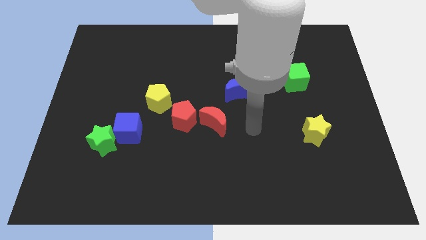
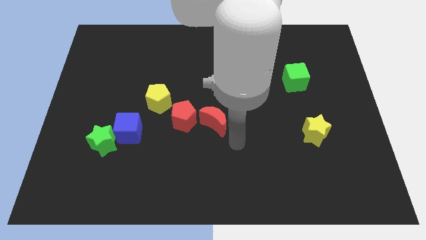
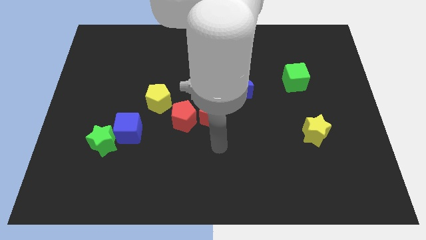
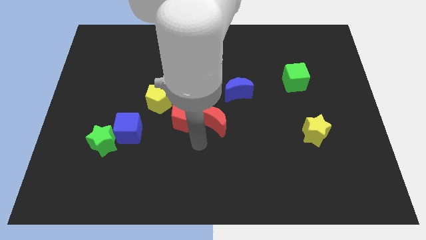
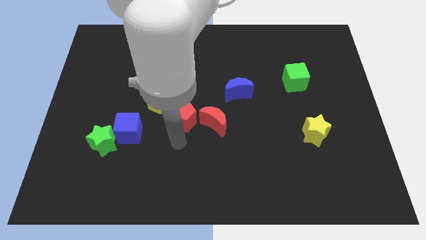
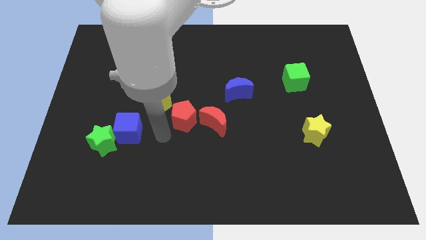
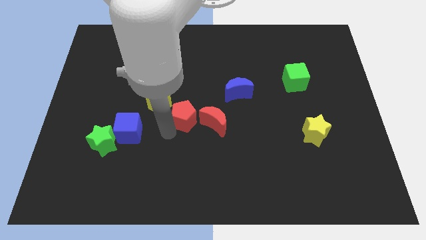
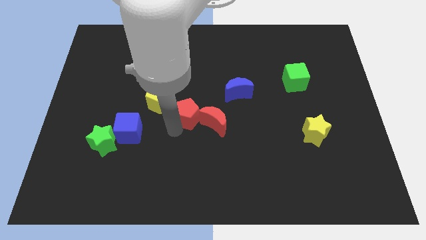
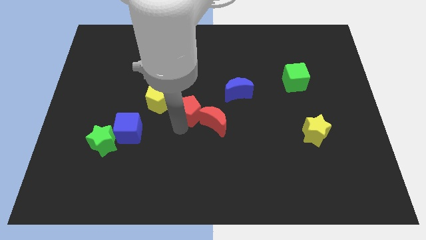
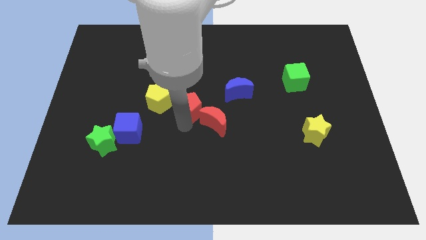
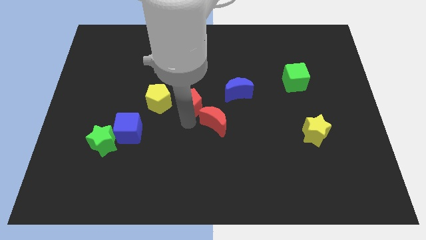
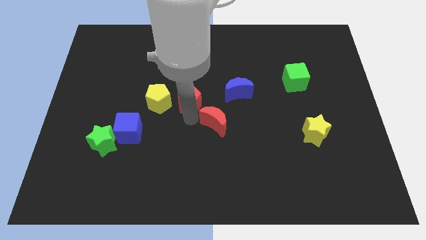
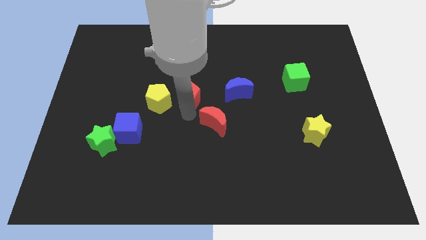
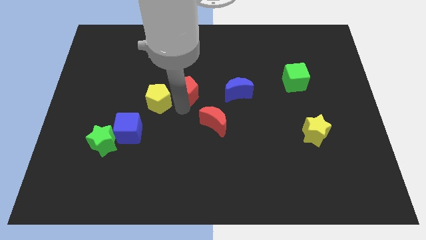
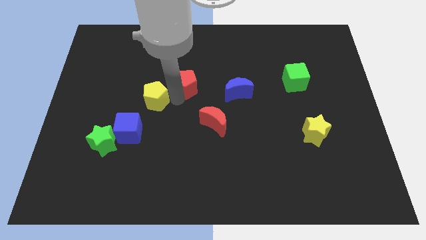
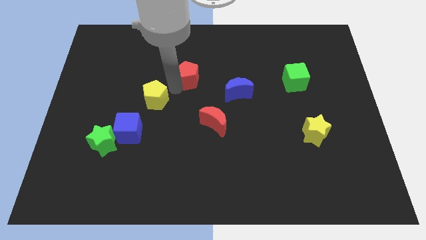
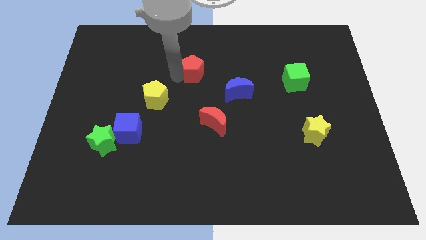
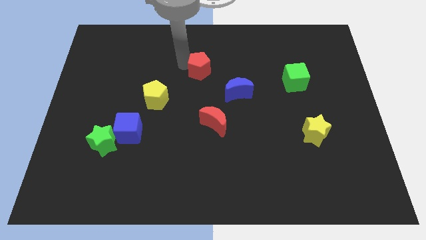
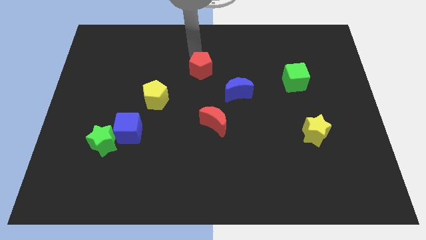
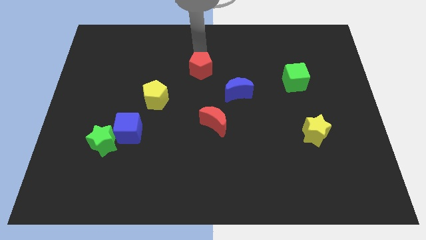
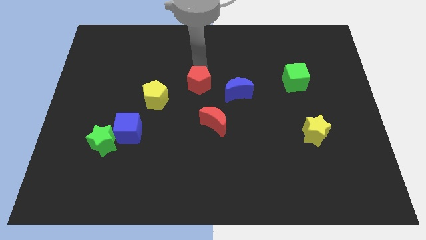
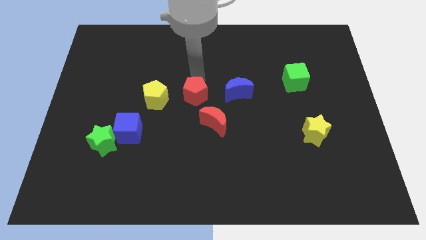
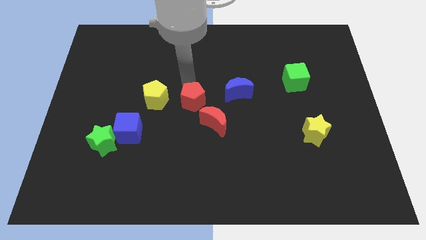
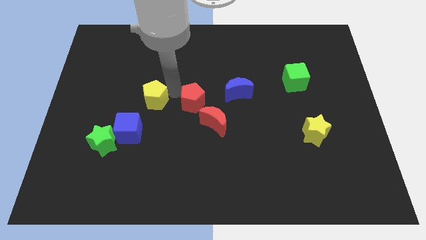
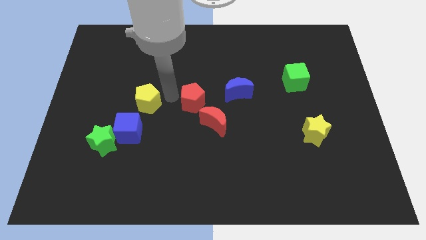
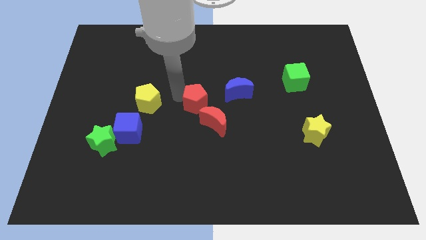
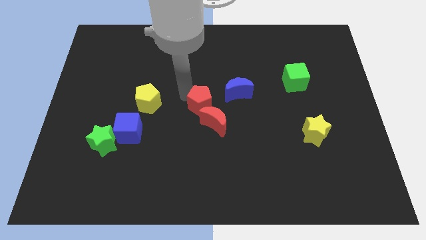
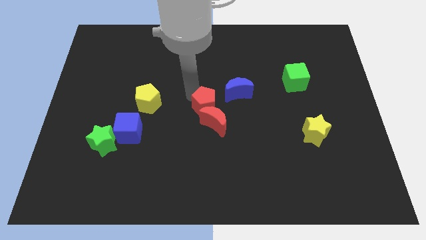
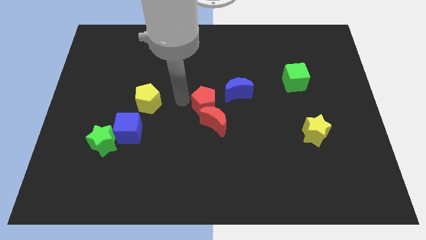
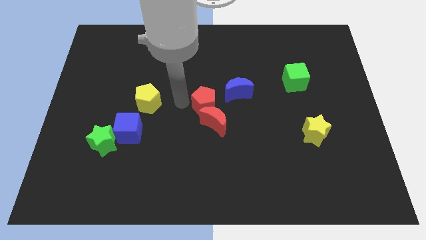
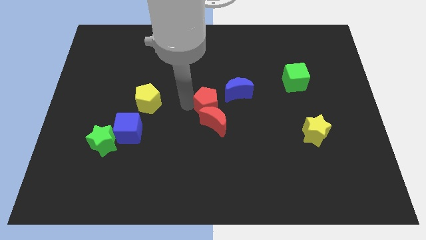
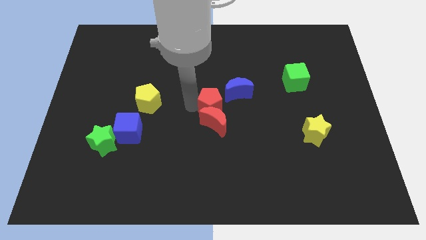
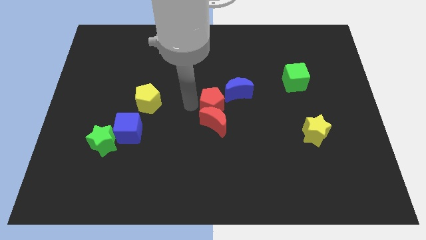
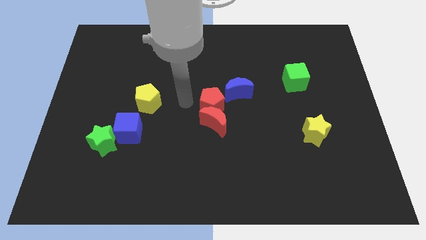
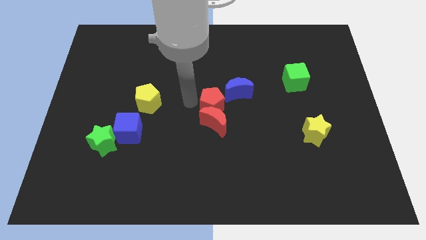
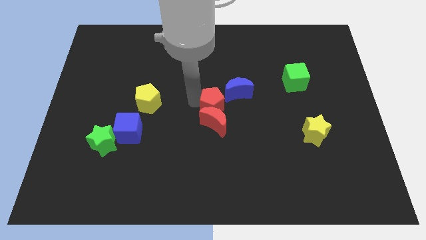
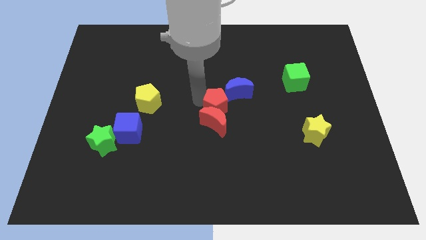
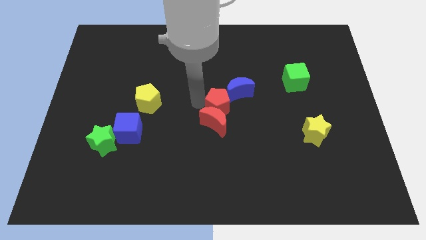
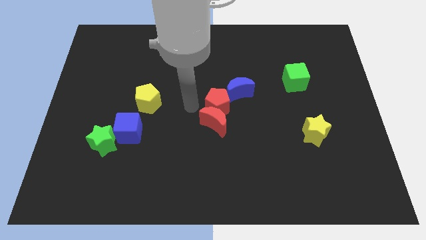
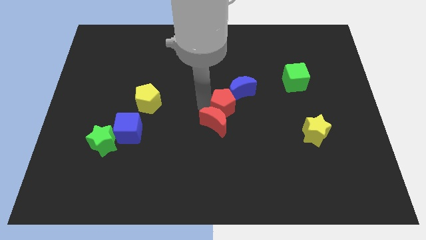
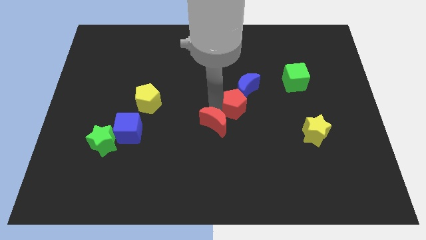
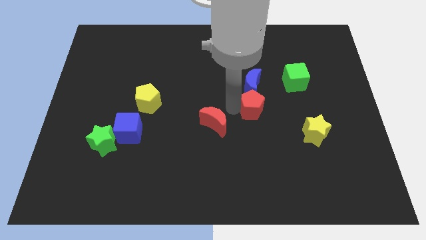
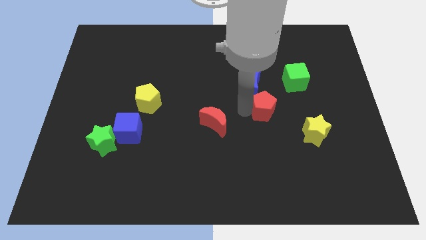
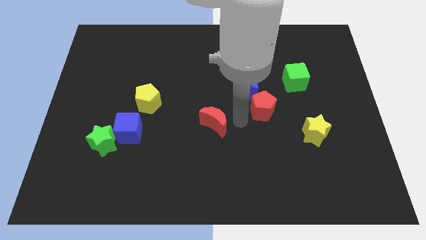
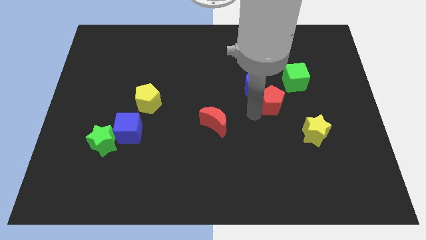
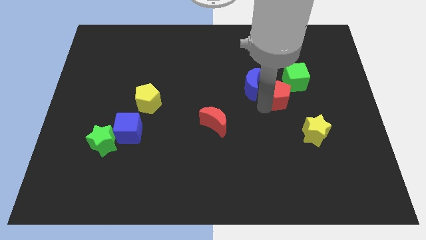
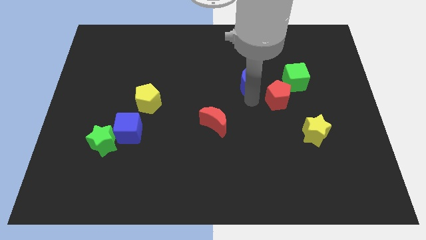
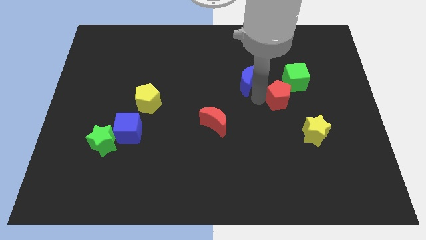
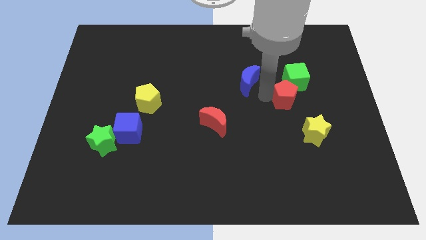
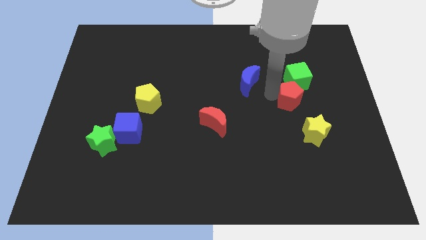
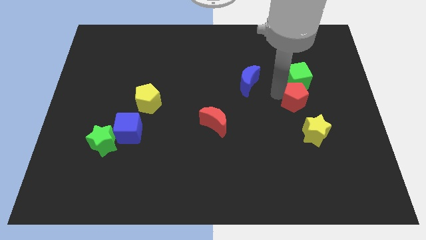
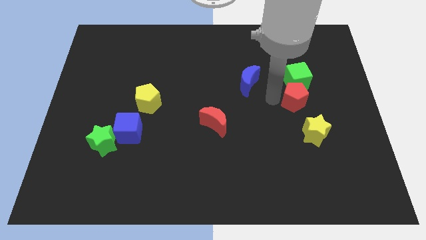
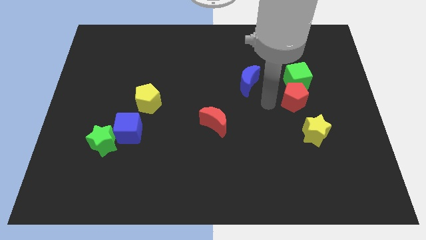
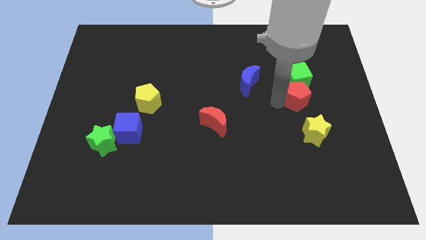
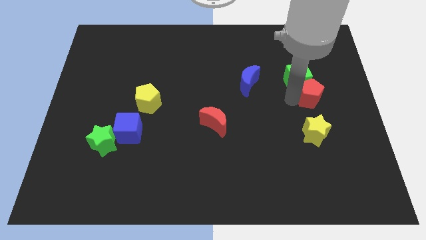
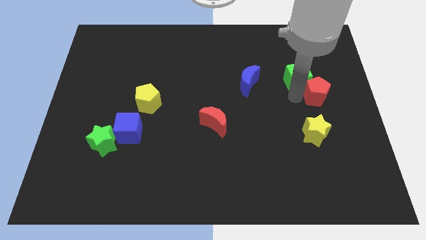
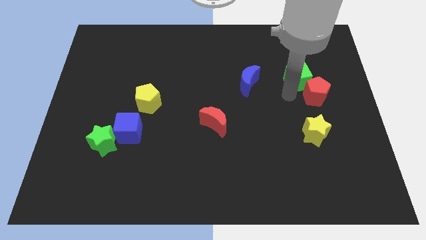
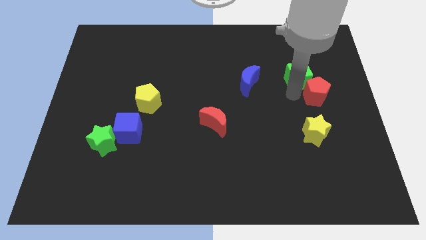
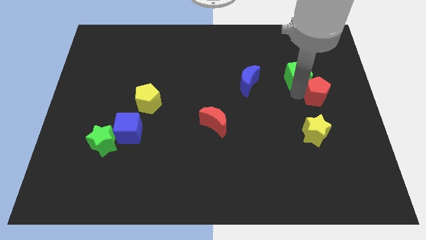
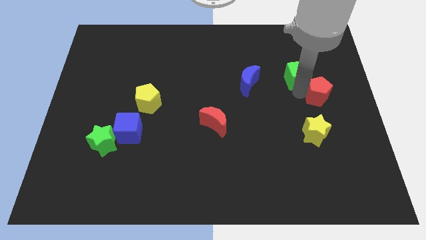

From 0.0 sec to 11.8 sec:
slide the red pentagon to the center right

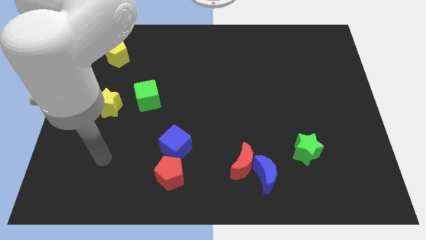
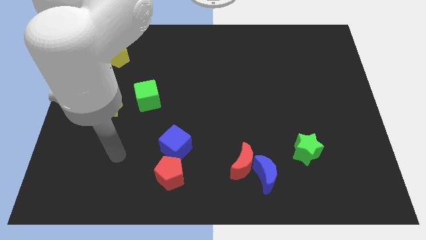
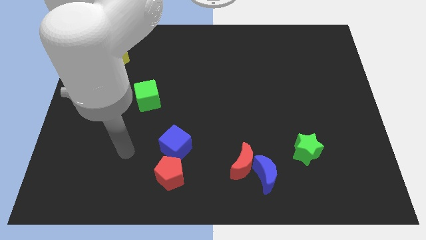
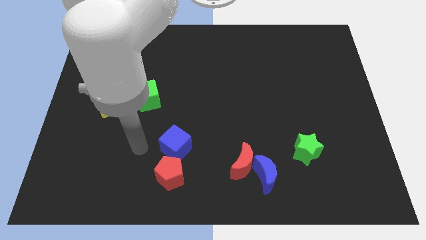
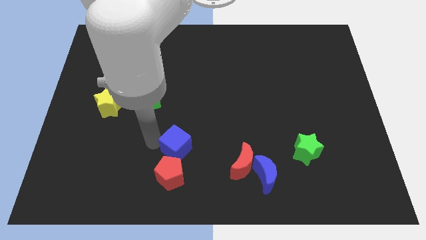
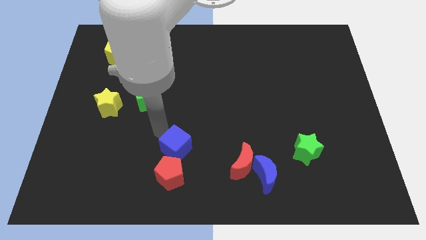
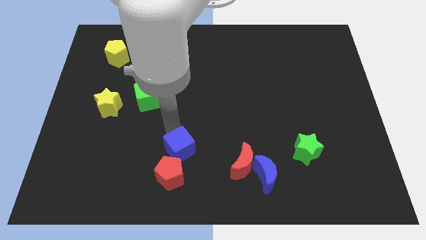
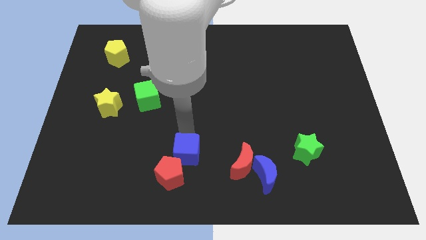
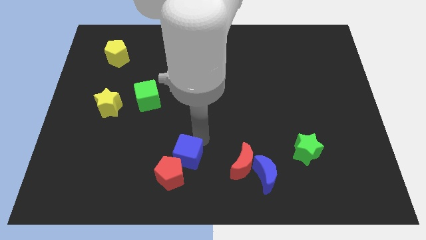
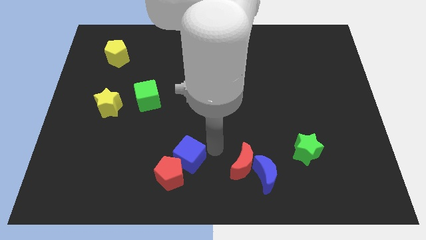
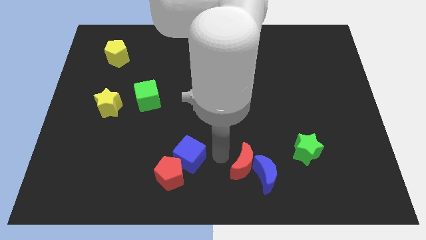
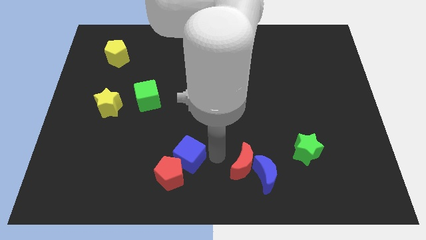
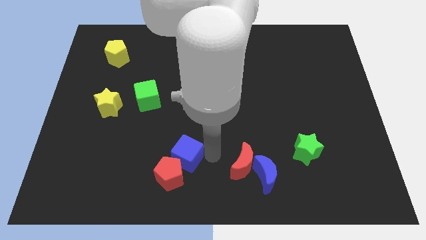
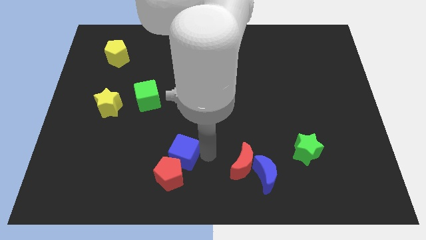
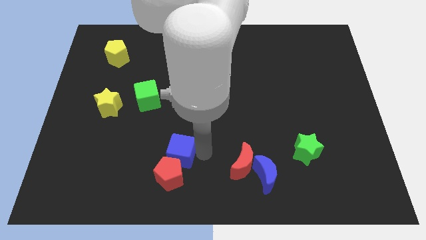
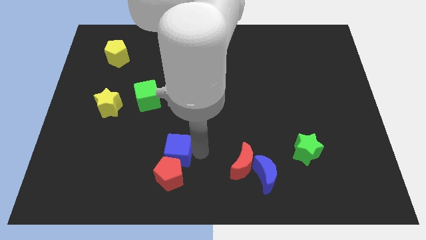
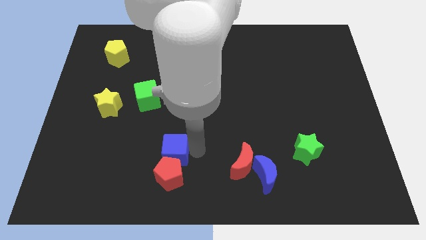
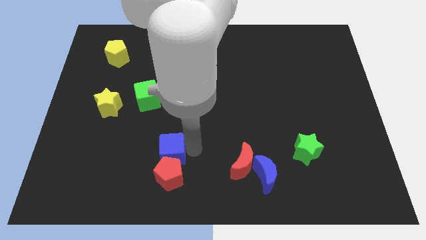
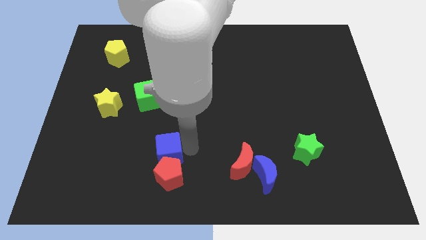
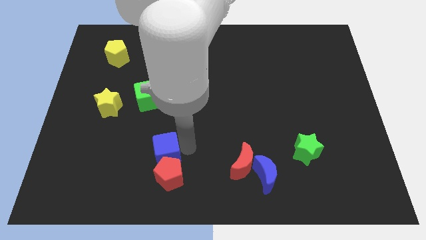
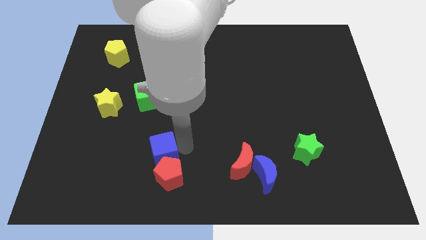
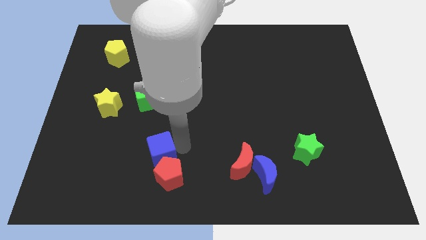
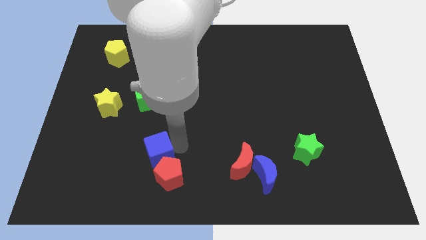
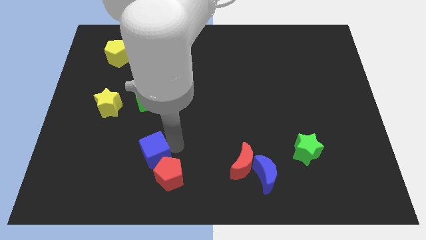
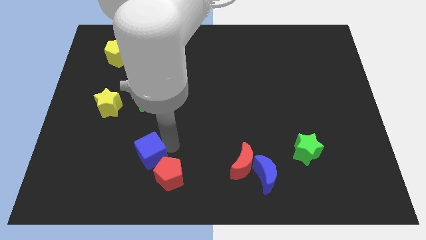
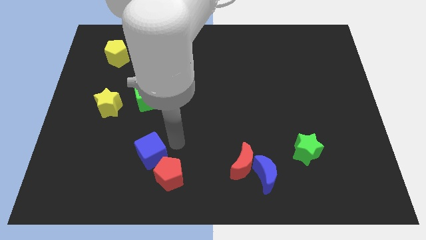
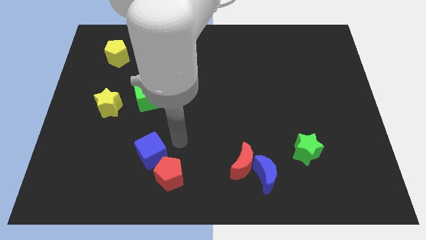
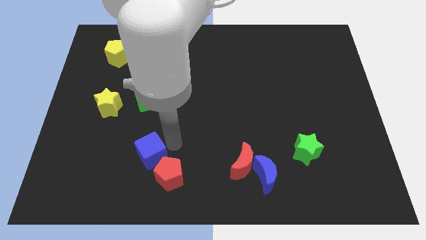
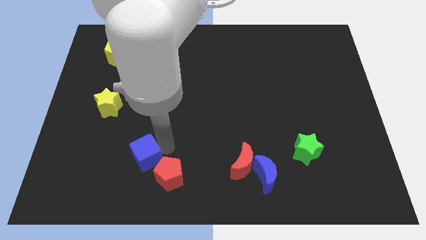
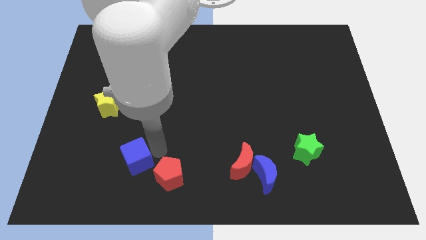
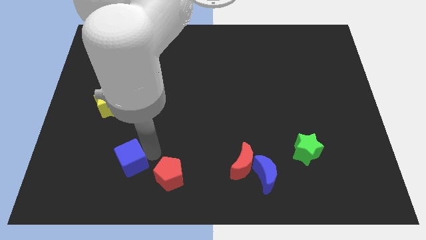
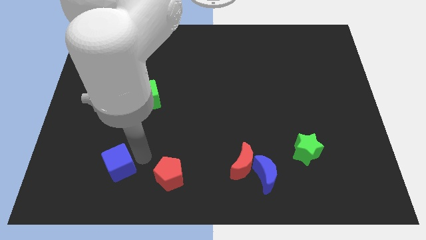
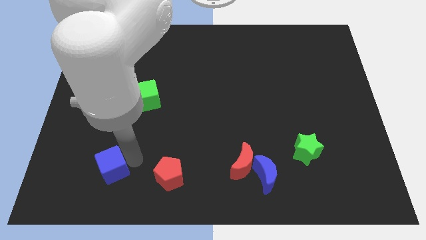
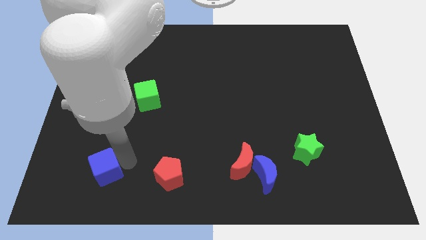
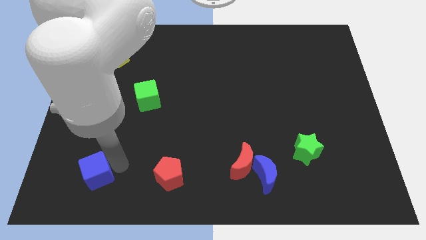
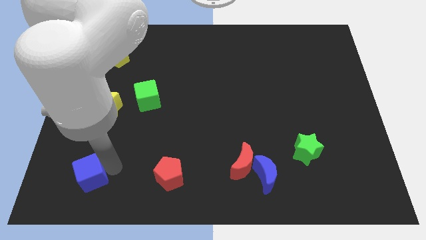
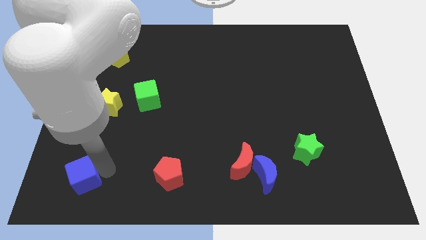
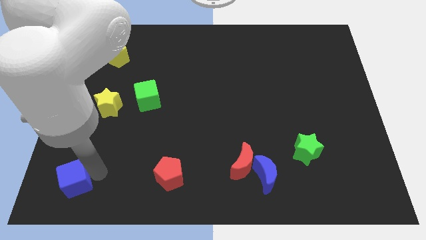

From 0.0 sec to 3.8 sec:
put the blue cube to the bottom left of the board
